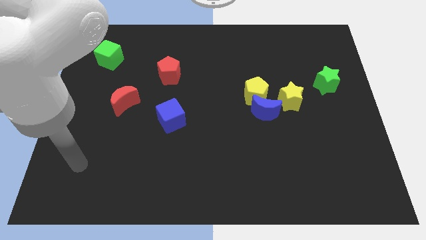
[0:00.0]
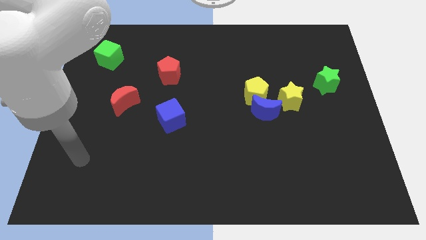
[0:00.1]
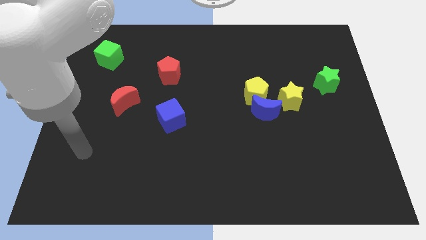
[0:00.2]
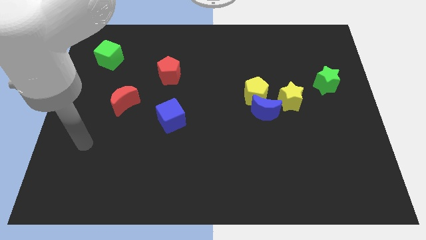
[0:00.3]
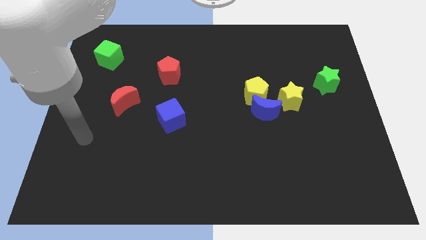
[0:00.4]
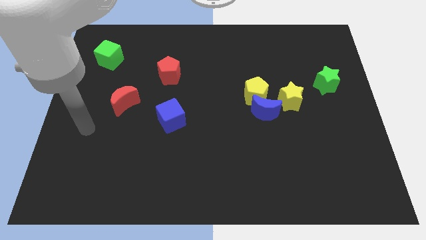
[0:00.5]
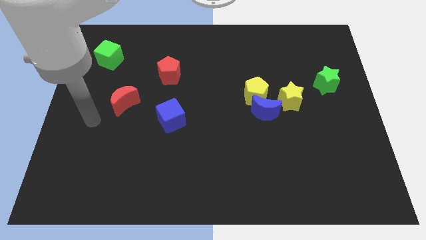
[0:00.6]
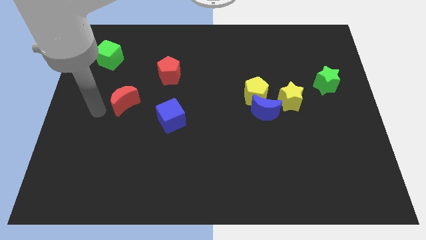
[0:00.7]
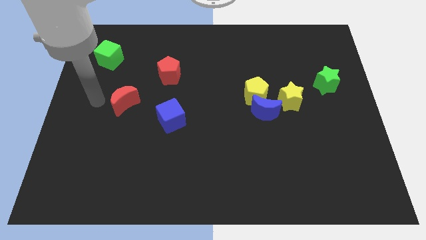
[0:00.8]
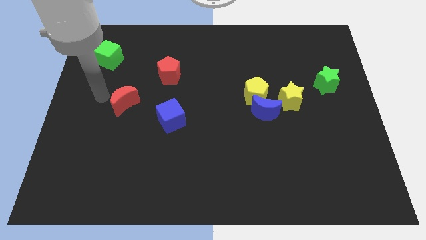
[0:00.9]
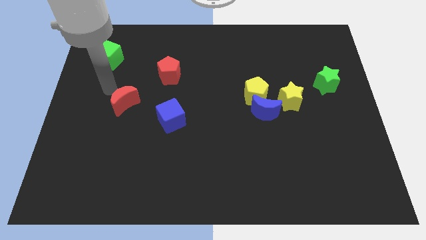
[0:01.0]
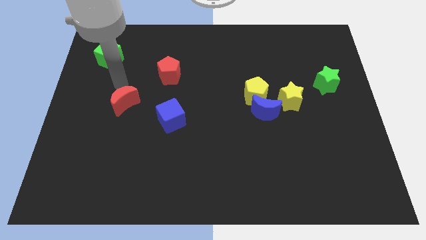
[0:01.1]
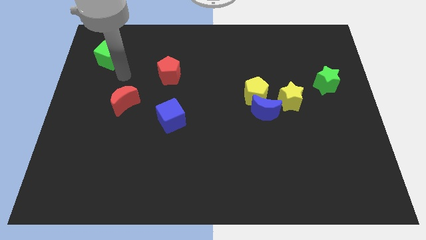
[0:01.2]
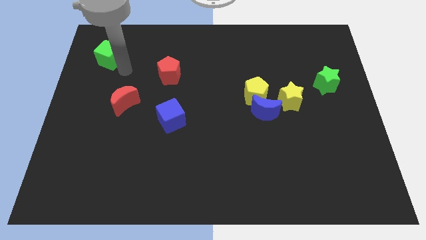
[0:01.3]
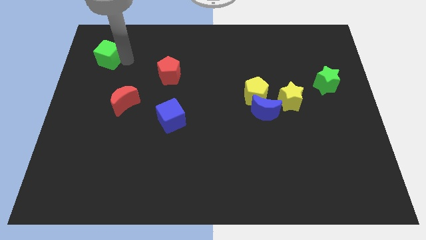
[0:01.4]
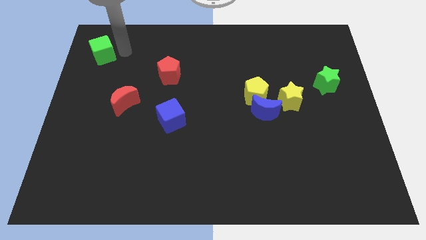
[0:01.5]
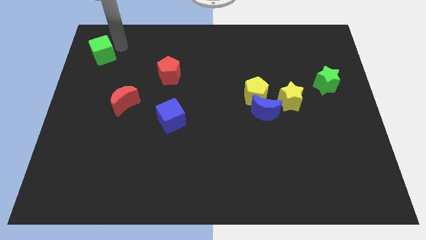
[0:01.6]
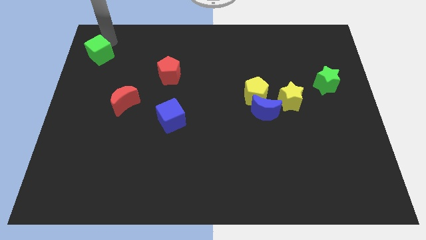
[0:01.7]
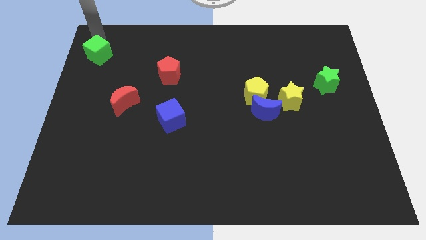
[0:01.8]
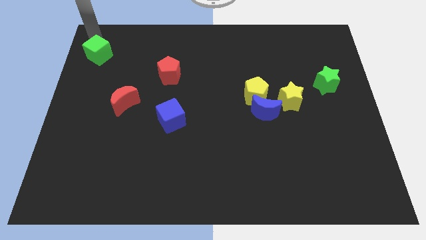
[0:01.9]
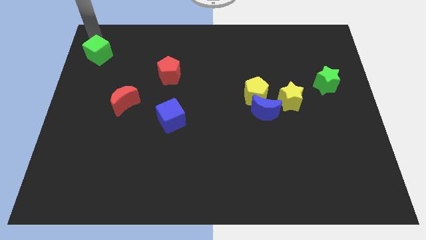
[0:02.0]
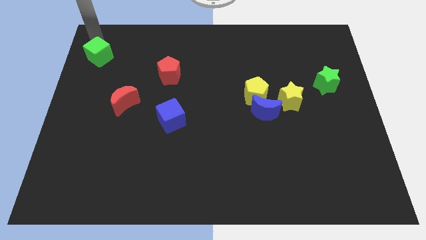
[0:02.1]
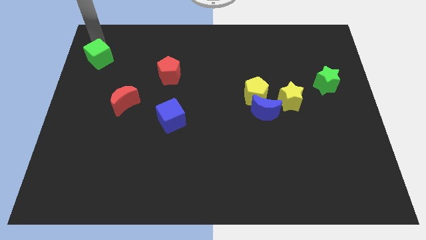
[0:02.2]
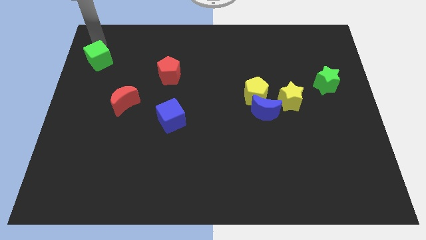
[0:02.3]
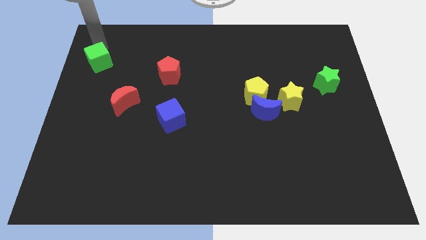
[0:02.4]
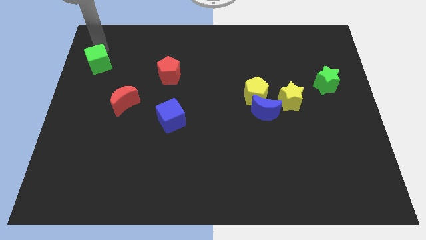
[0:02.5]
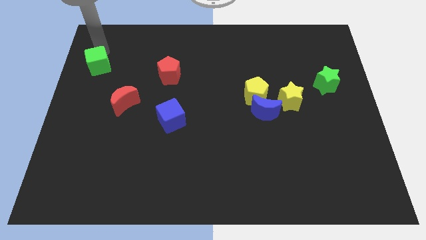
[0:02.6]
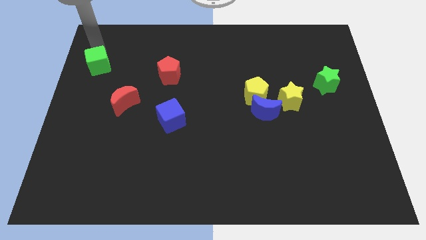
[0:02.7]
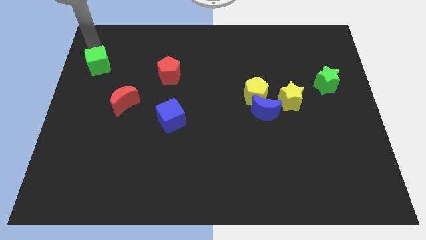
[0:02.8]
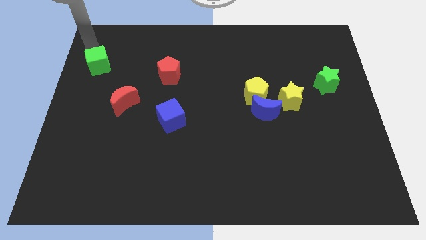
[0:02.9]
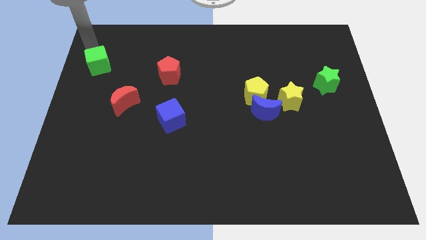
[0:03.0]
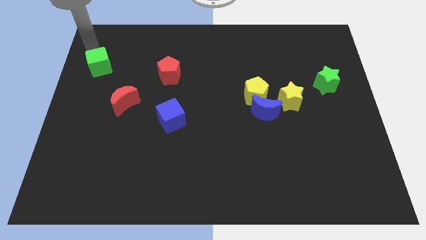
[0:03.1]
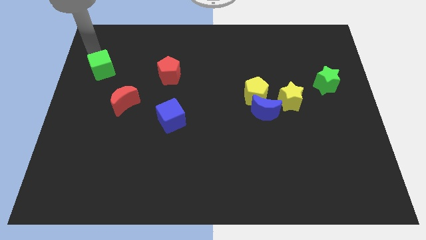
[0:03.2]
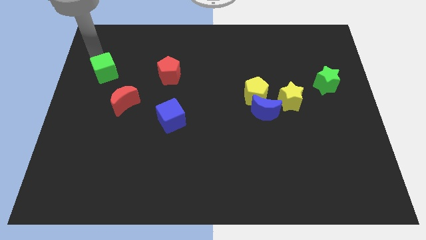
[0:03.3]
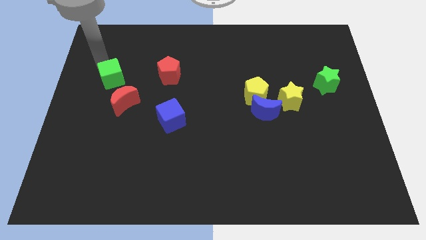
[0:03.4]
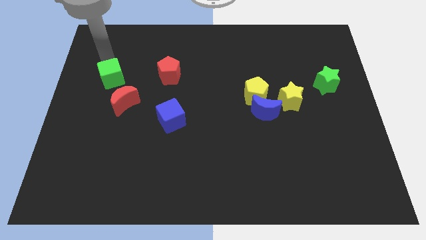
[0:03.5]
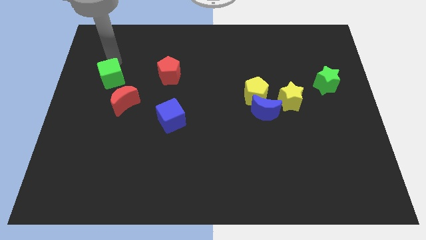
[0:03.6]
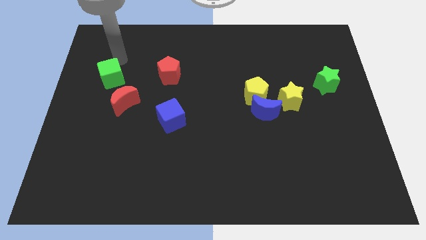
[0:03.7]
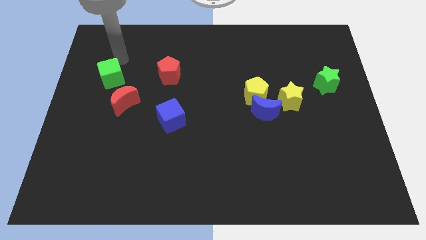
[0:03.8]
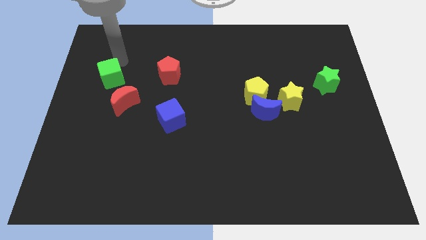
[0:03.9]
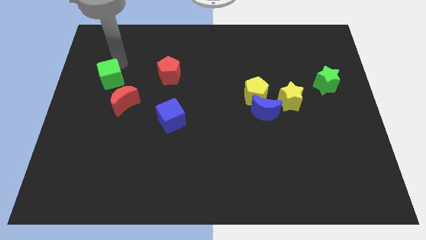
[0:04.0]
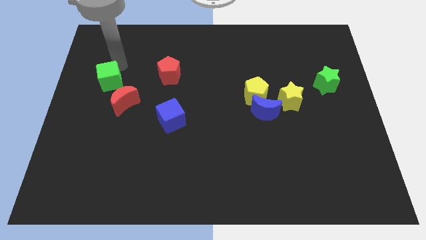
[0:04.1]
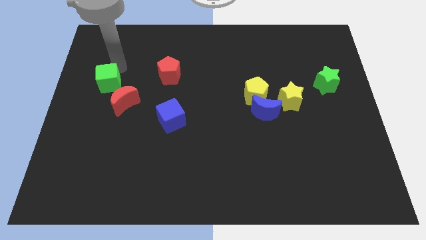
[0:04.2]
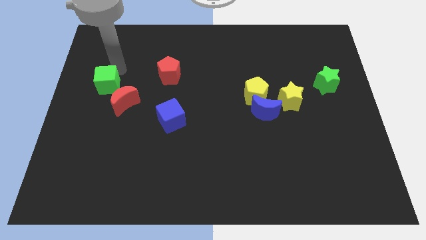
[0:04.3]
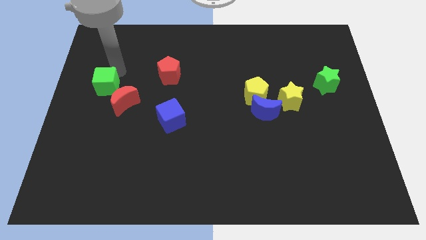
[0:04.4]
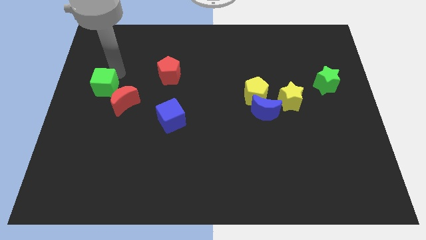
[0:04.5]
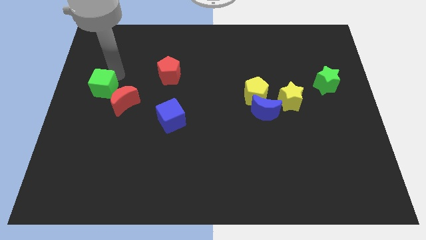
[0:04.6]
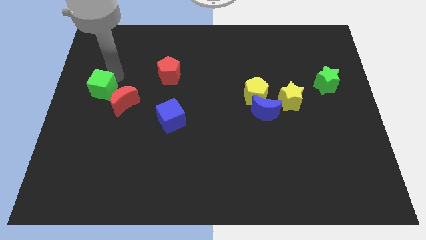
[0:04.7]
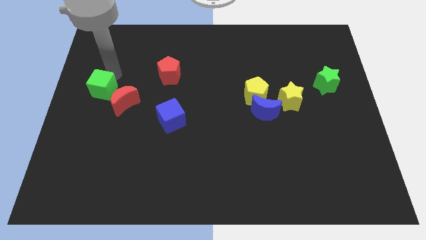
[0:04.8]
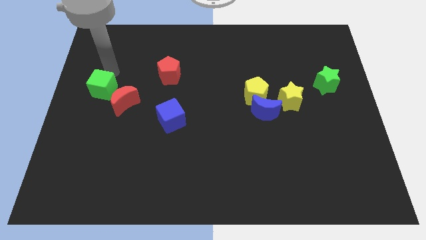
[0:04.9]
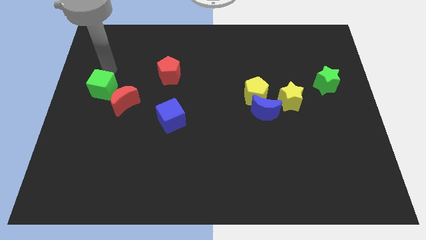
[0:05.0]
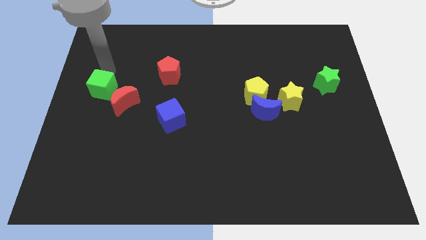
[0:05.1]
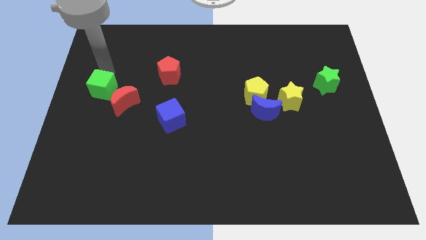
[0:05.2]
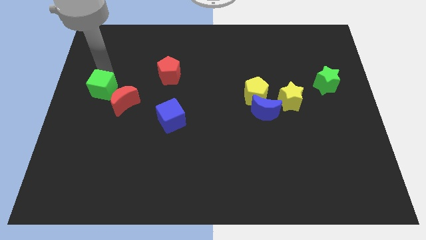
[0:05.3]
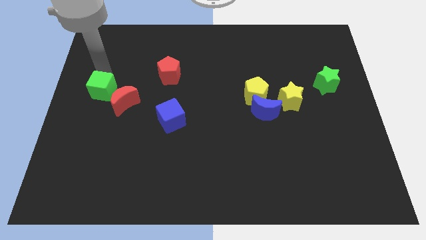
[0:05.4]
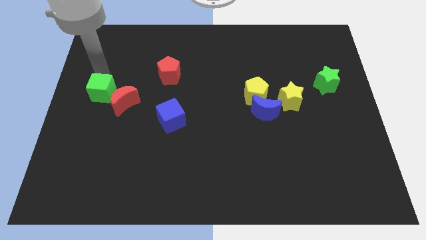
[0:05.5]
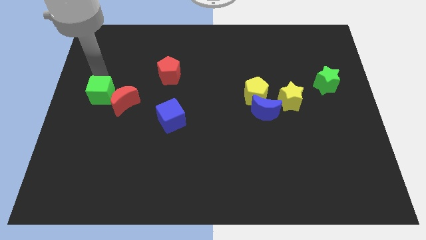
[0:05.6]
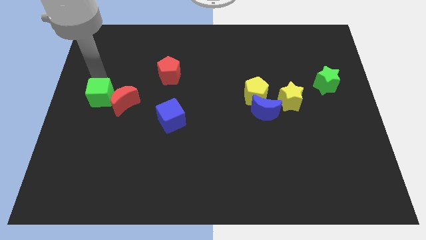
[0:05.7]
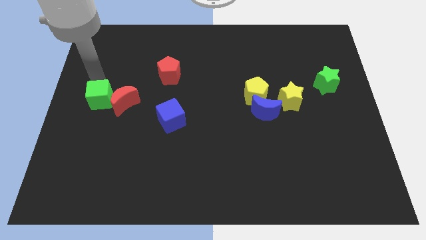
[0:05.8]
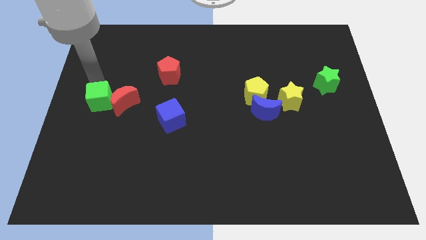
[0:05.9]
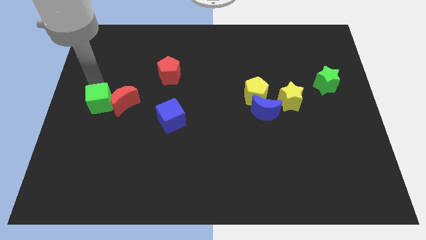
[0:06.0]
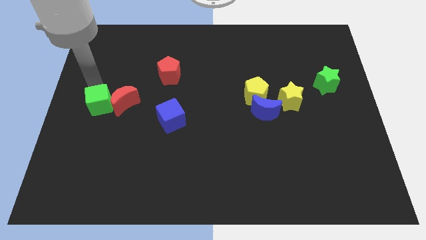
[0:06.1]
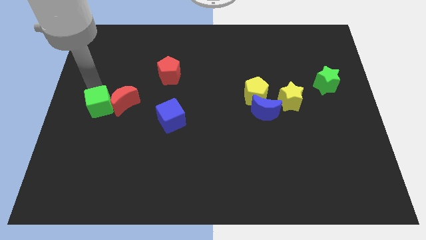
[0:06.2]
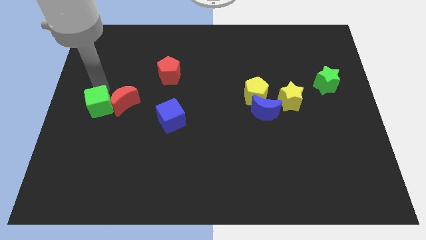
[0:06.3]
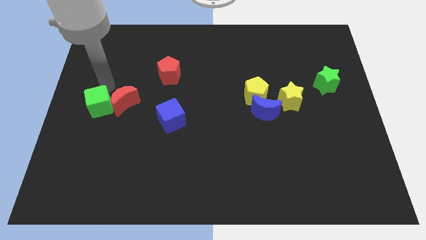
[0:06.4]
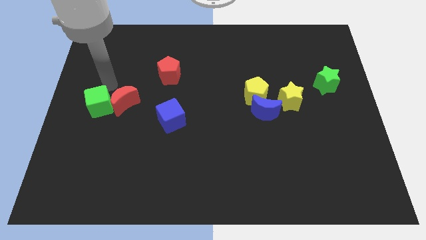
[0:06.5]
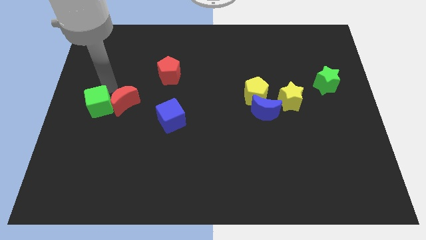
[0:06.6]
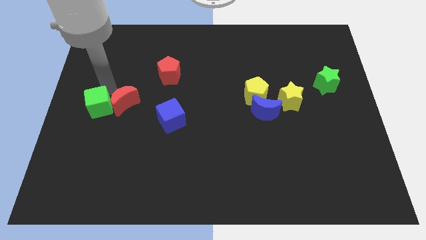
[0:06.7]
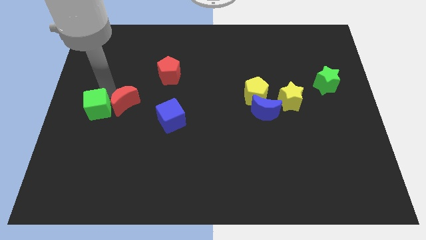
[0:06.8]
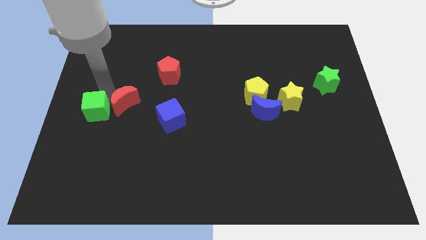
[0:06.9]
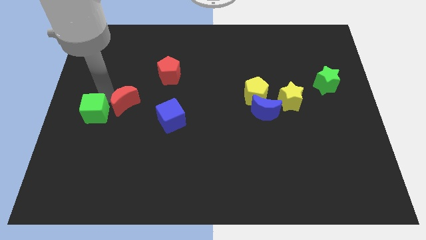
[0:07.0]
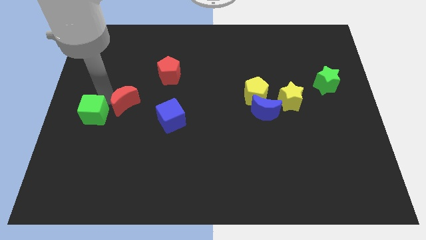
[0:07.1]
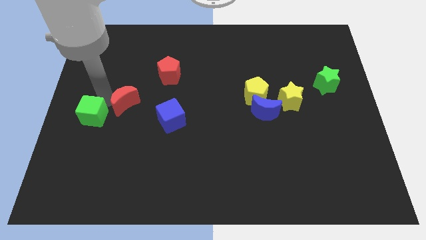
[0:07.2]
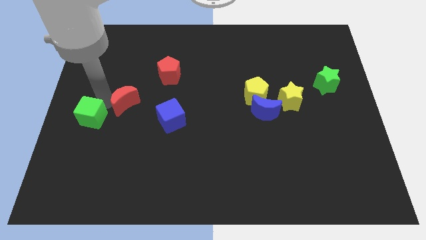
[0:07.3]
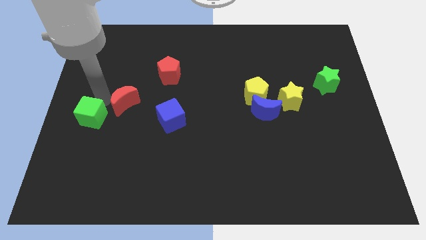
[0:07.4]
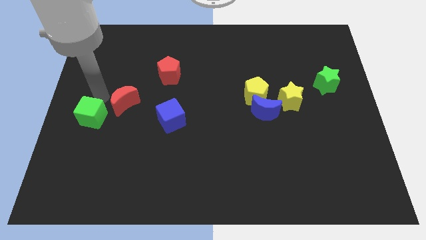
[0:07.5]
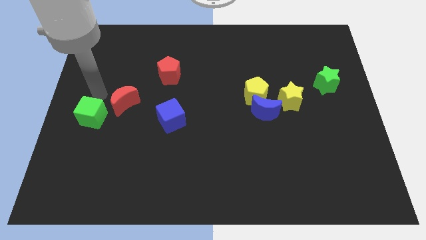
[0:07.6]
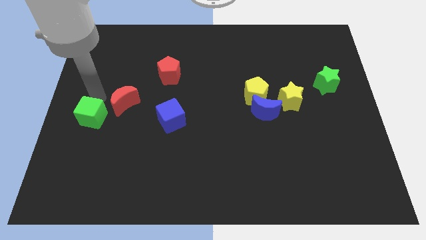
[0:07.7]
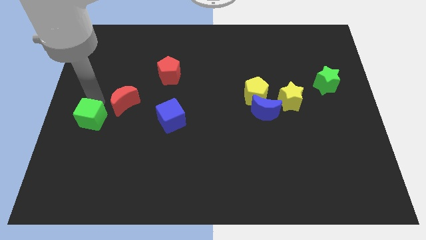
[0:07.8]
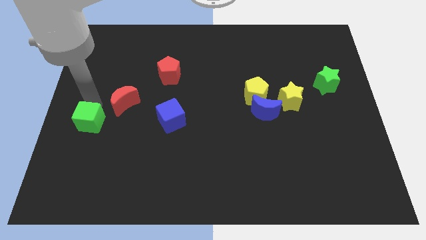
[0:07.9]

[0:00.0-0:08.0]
push the green cube down

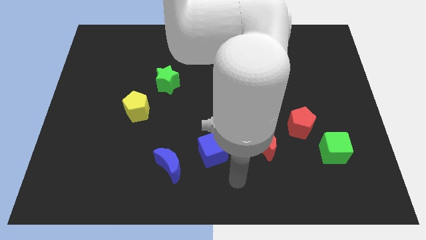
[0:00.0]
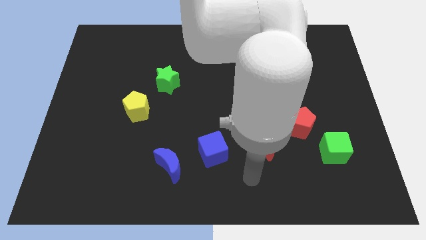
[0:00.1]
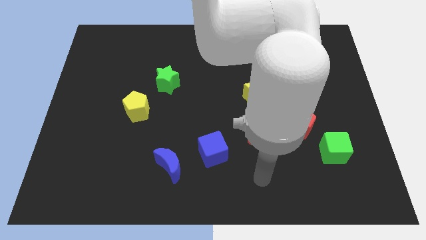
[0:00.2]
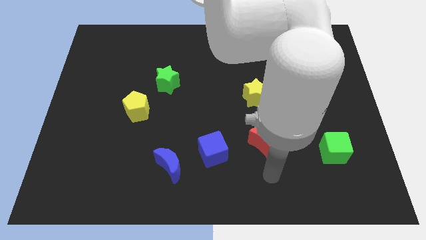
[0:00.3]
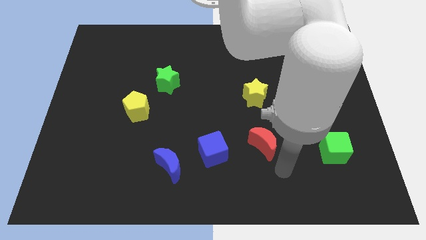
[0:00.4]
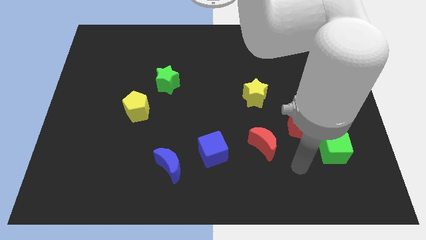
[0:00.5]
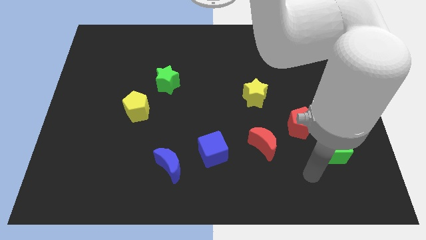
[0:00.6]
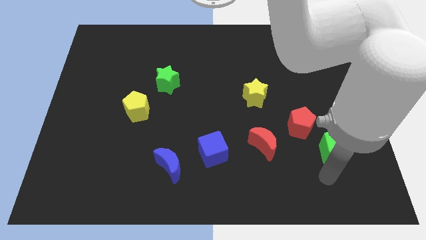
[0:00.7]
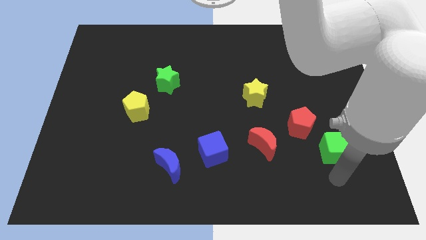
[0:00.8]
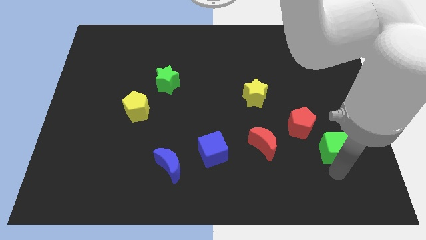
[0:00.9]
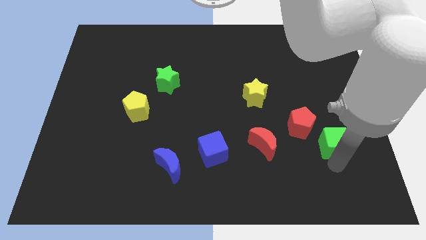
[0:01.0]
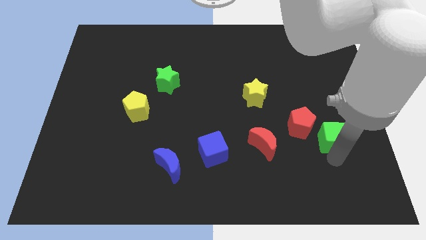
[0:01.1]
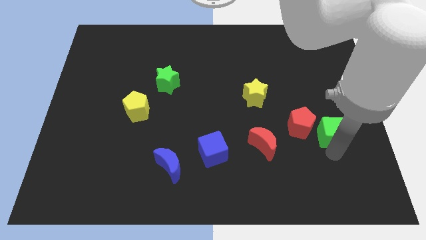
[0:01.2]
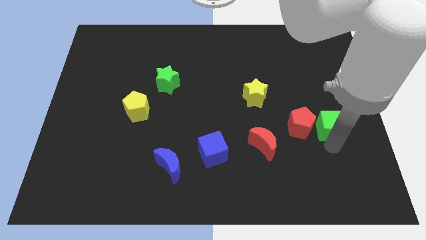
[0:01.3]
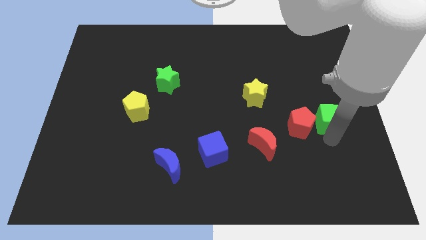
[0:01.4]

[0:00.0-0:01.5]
move the green cube slightly upwards
